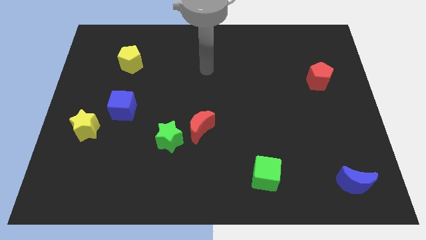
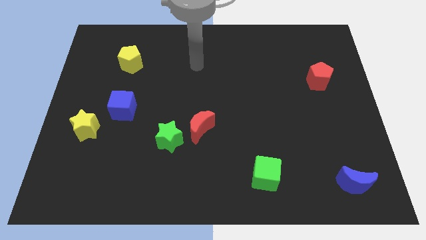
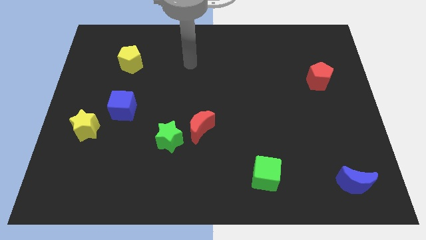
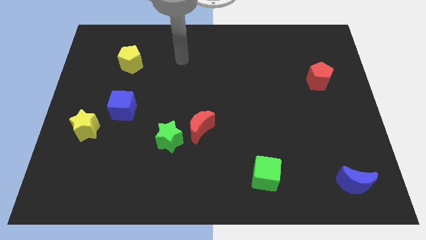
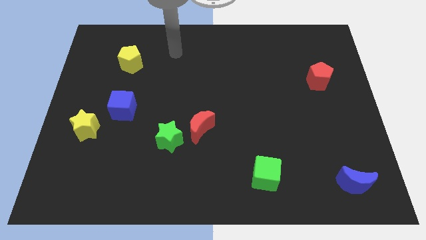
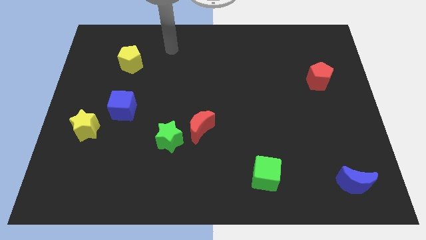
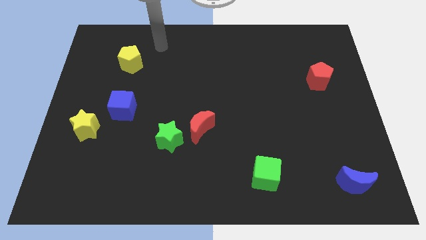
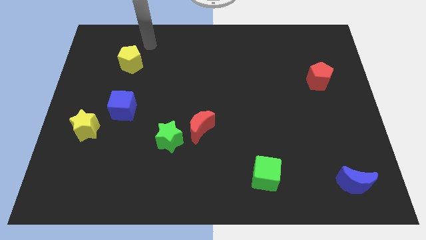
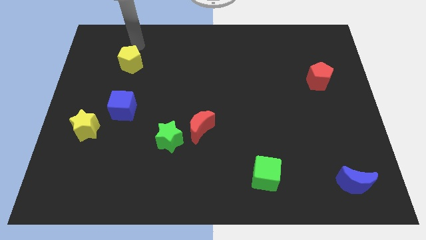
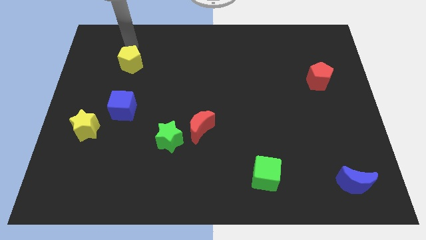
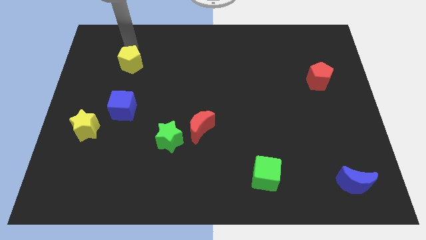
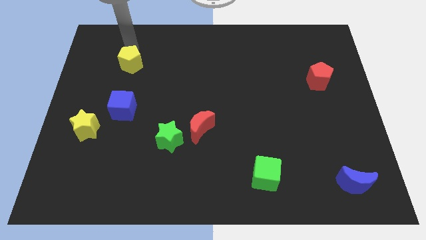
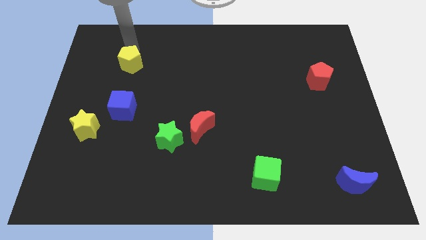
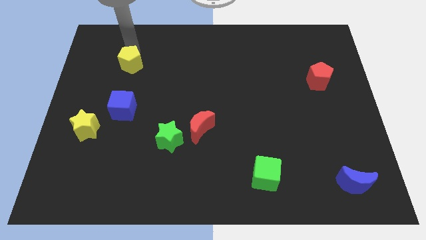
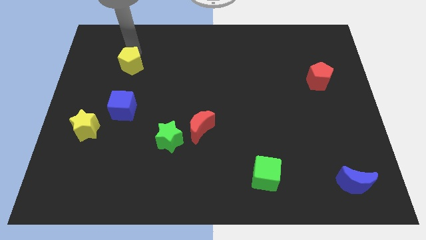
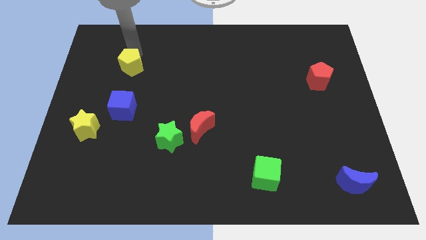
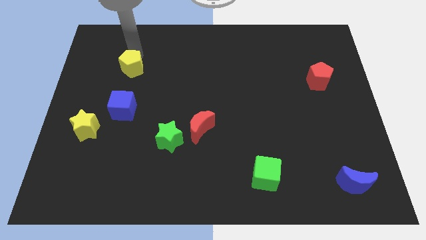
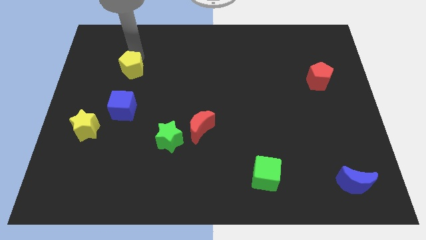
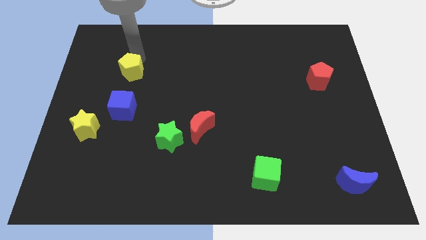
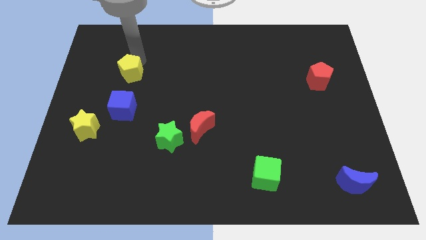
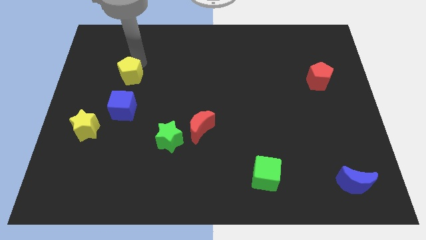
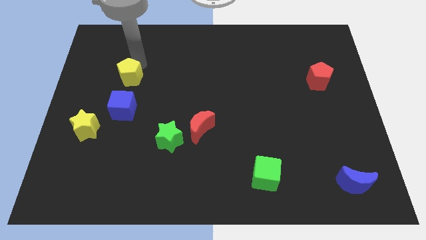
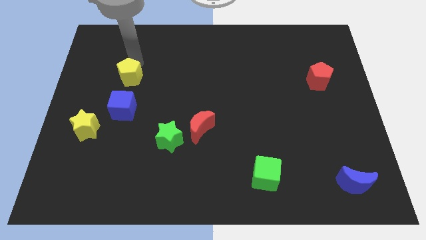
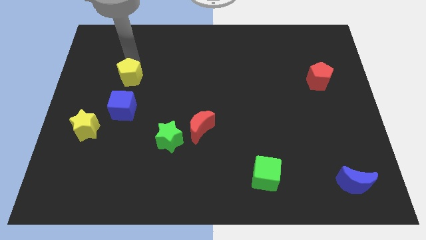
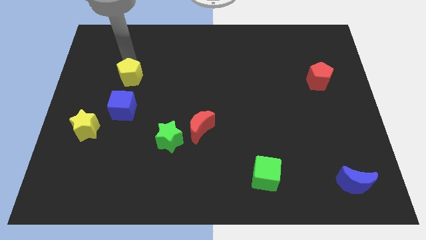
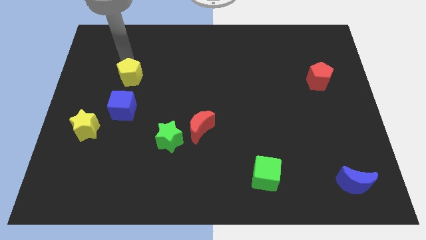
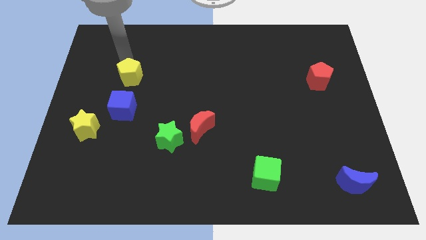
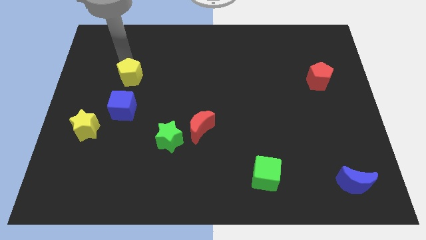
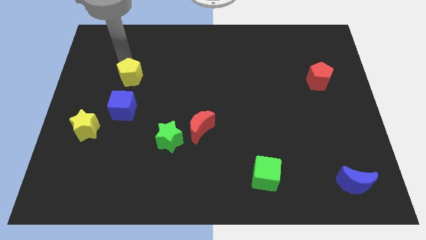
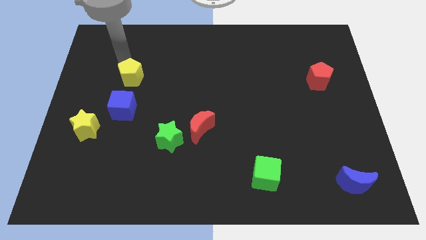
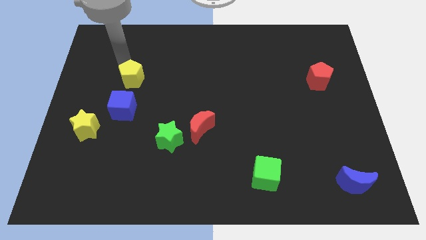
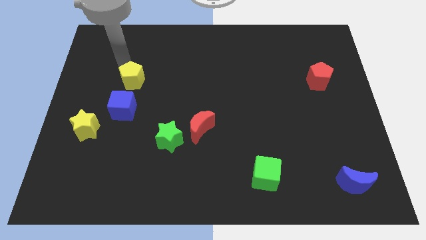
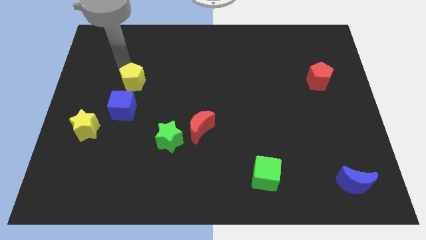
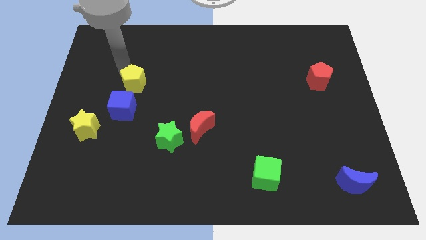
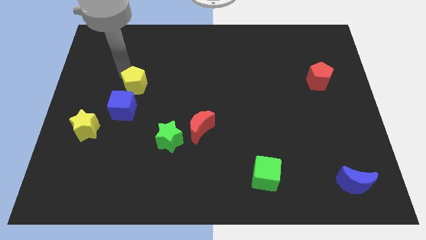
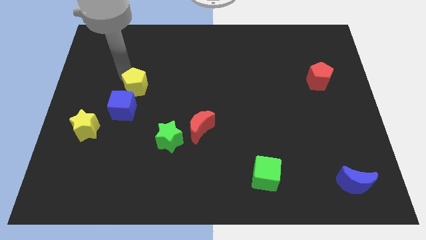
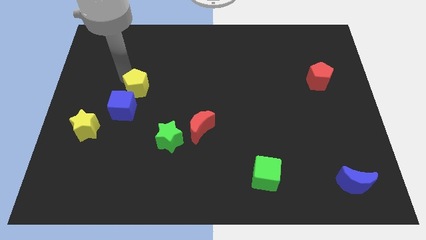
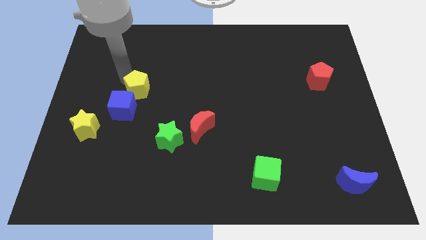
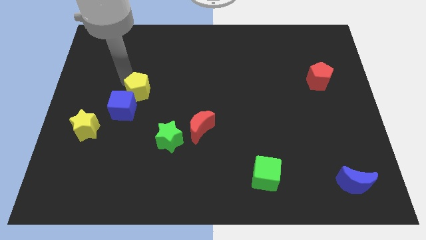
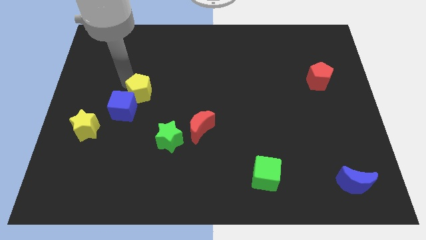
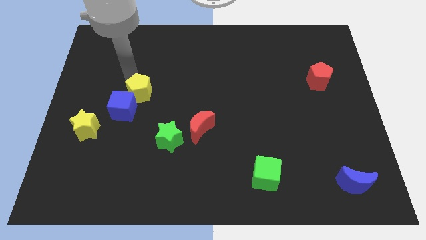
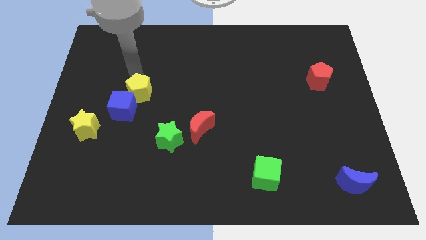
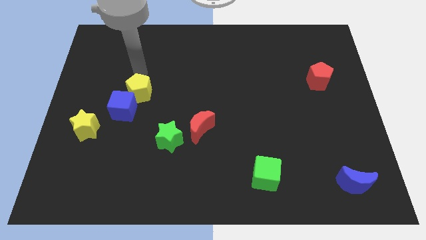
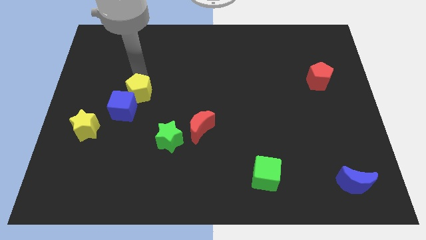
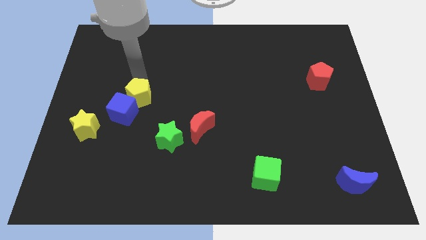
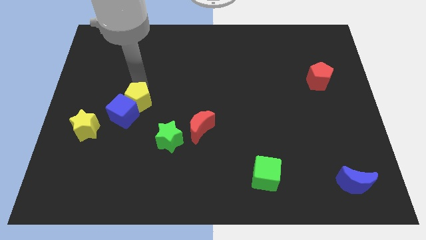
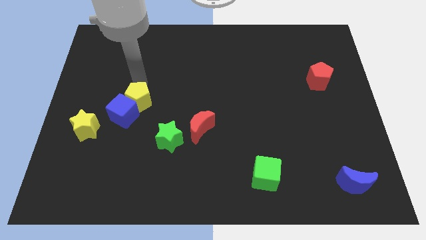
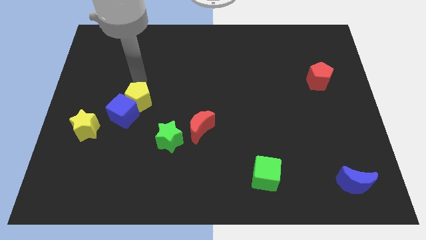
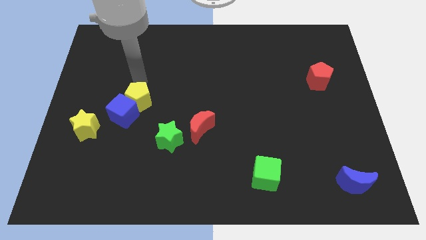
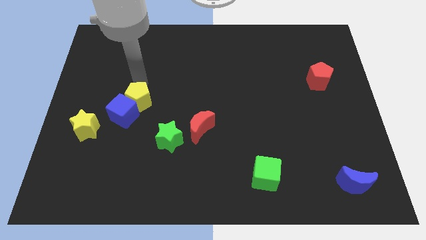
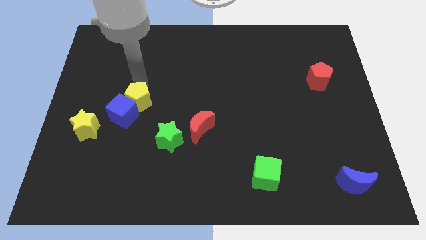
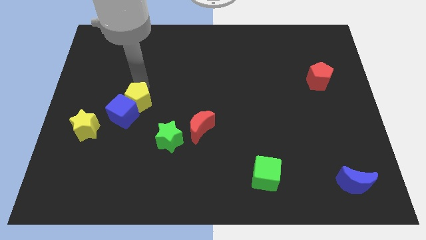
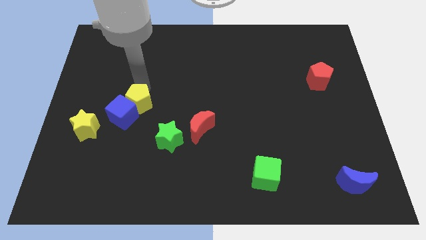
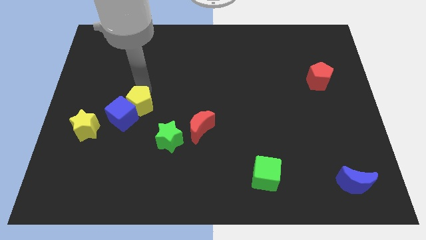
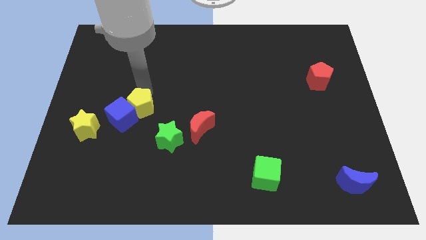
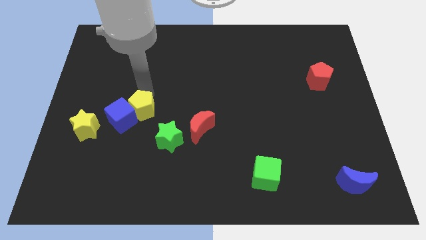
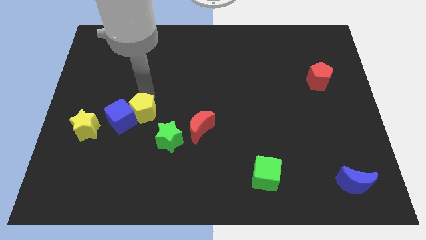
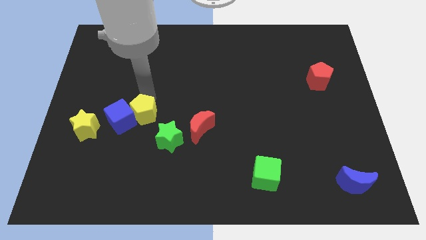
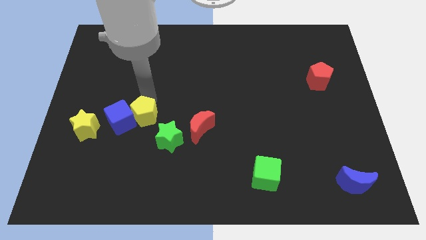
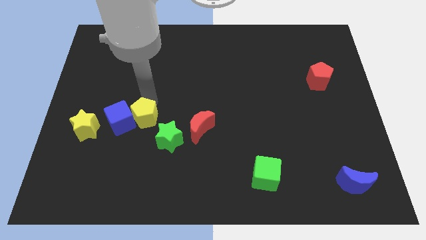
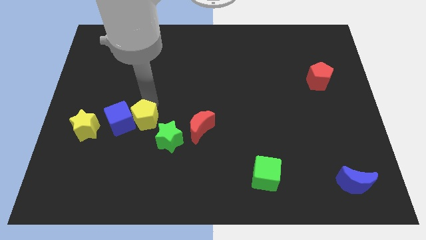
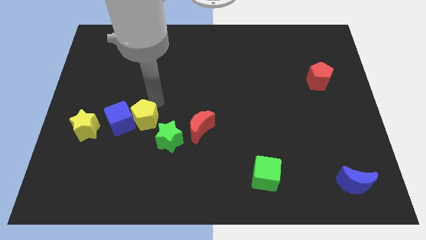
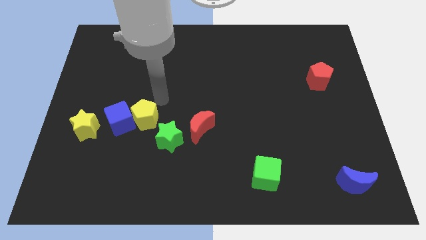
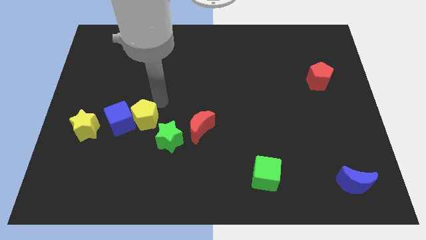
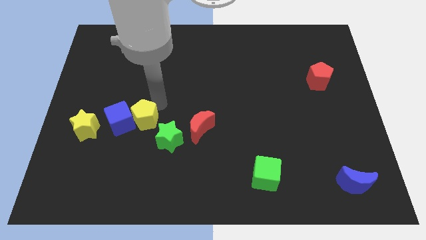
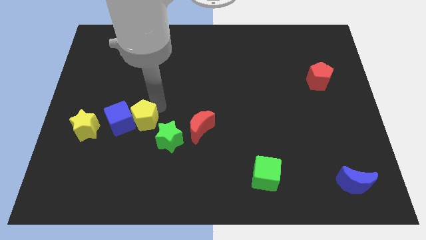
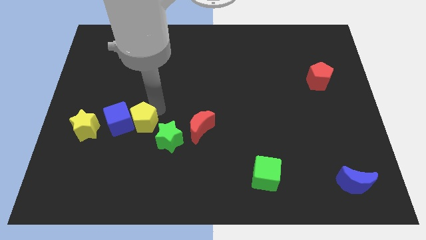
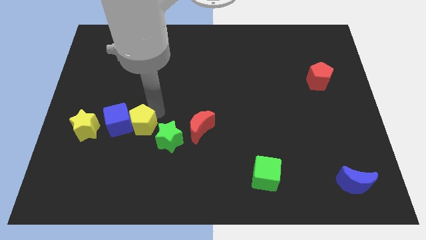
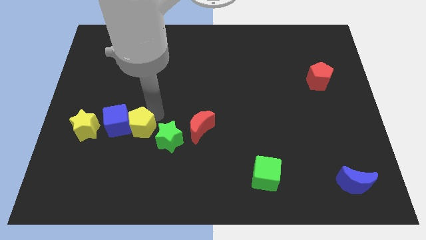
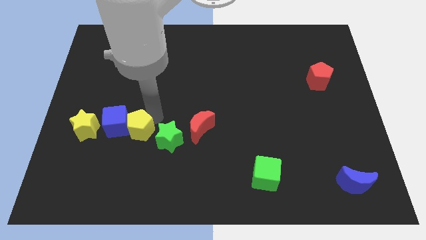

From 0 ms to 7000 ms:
move the yellow pentagon downwards

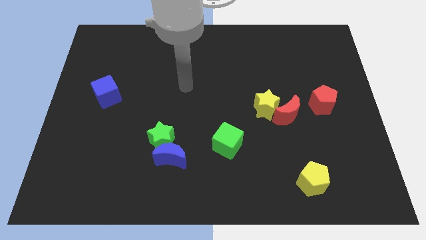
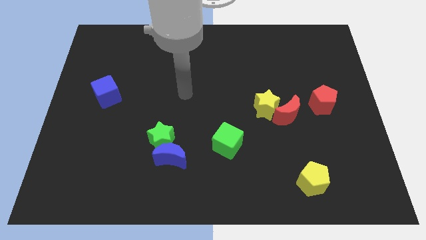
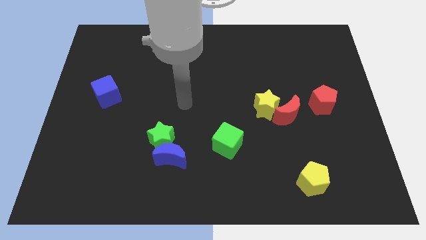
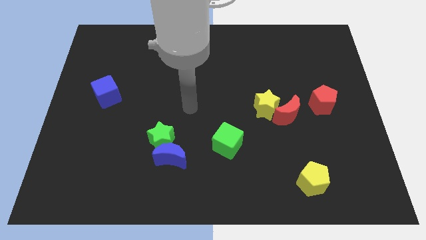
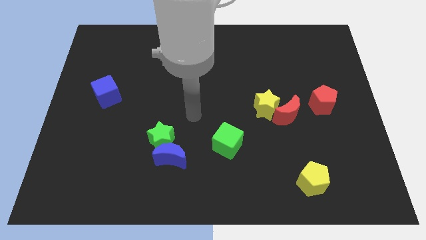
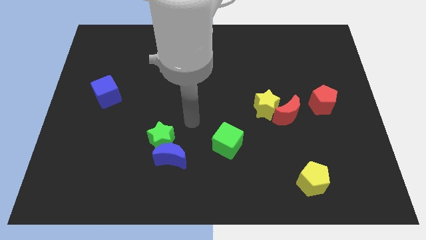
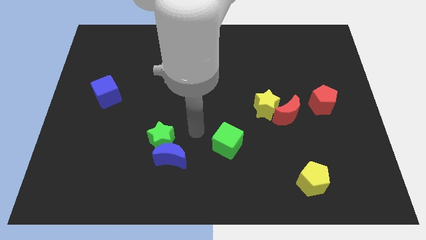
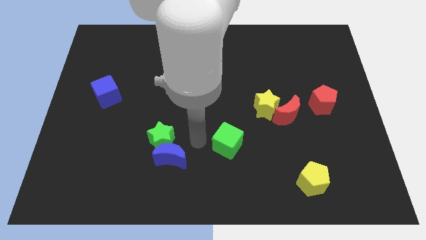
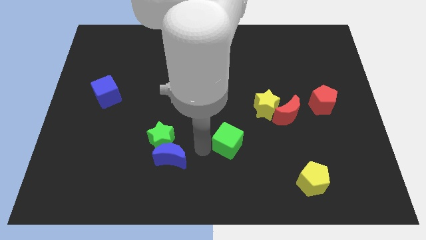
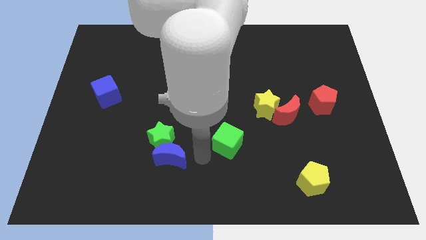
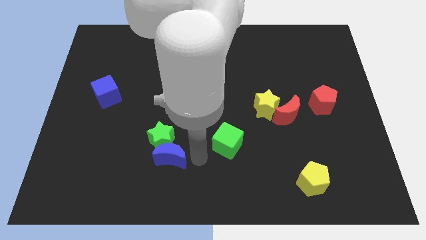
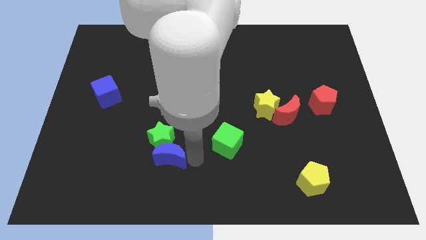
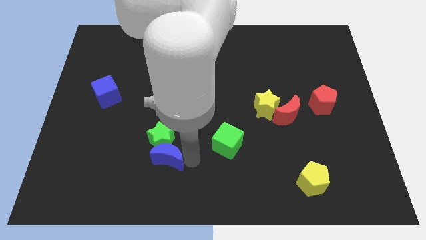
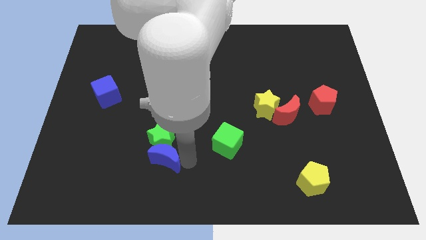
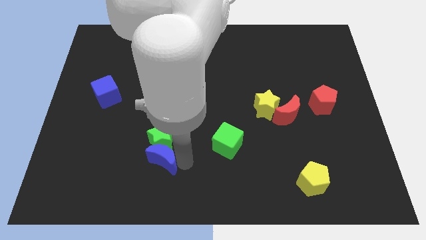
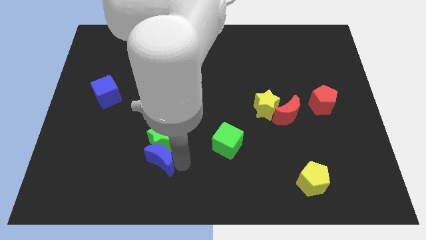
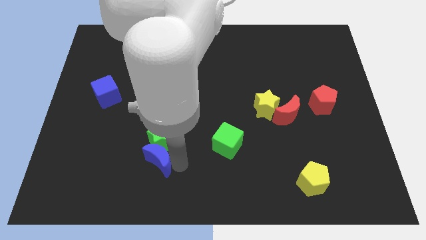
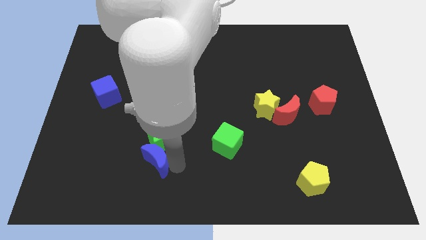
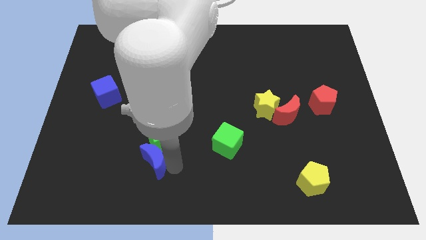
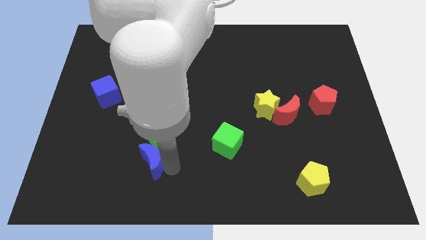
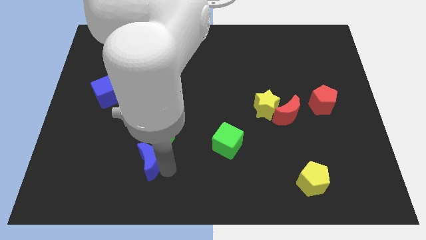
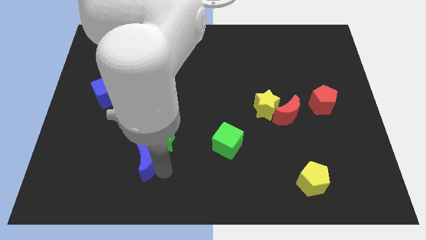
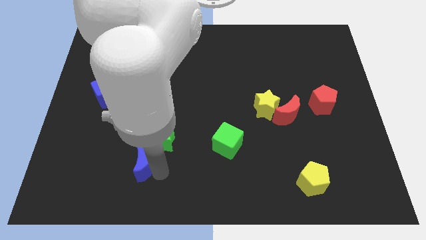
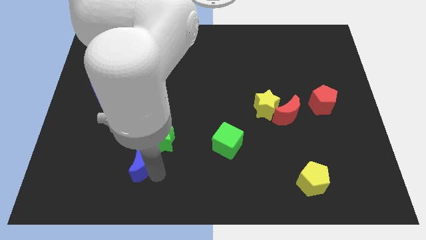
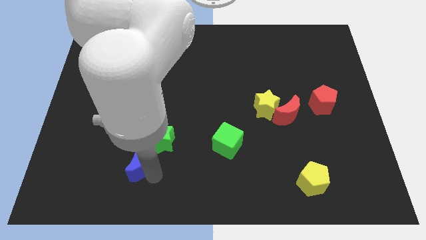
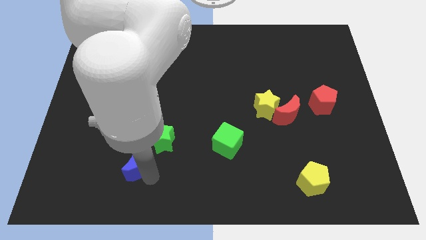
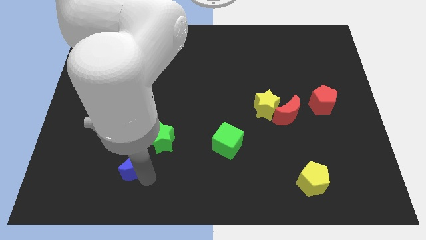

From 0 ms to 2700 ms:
slightly move the blue moon to the left
